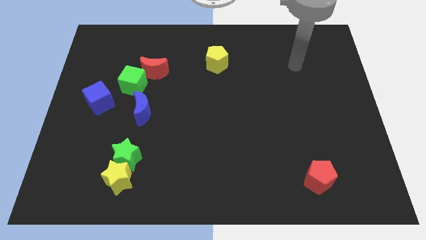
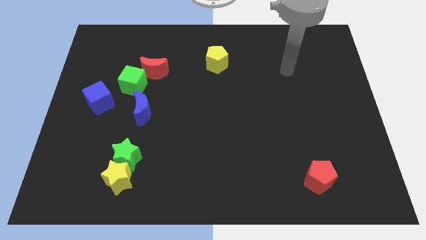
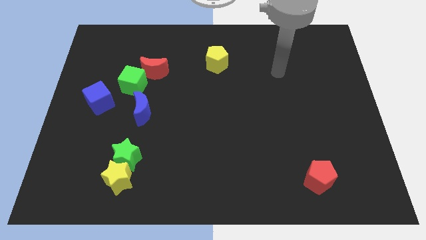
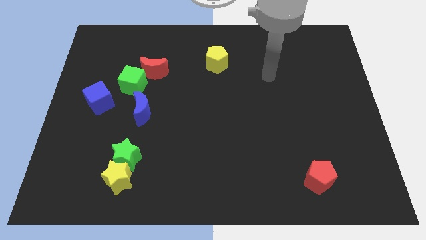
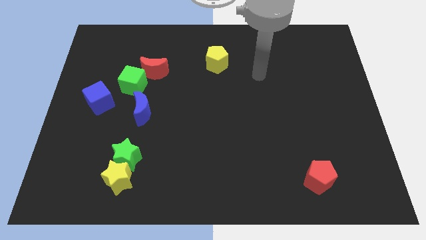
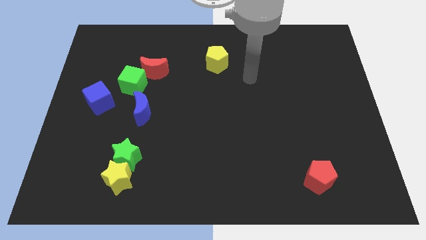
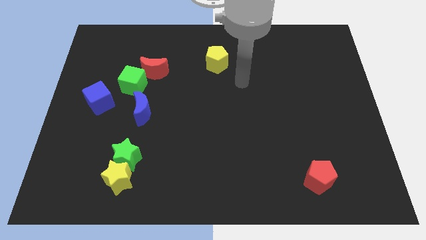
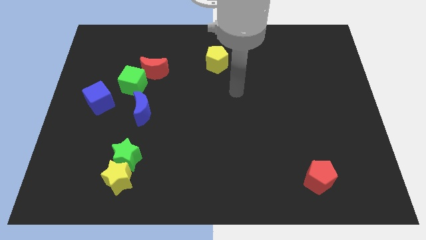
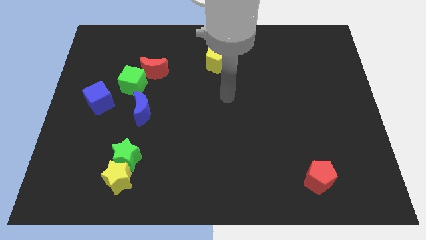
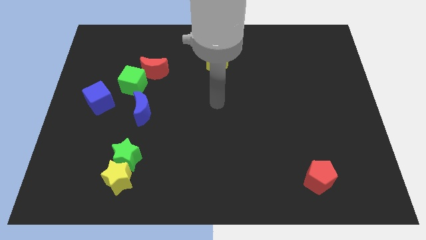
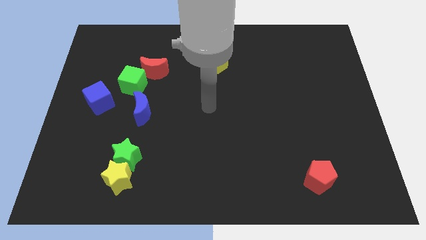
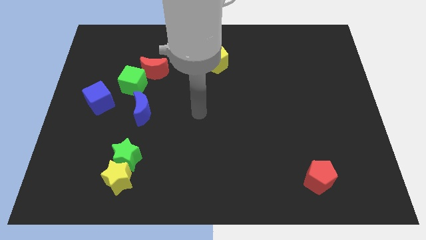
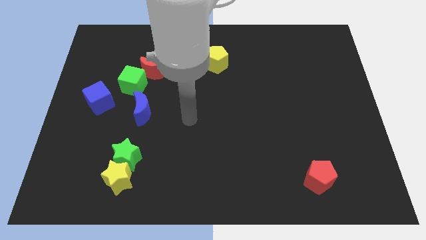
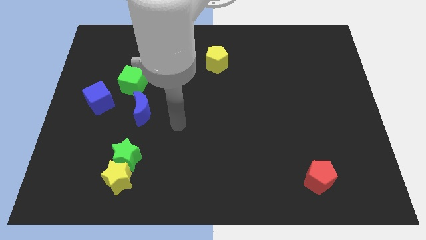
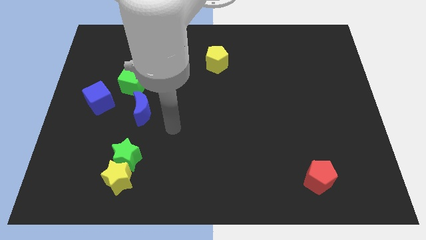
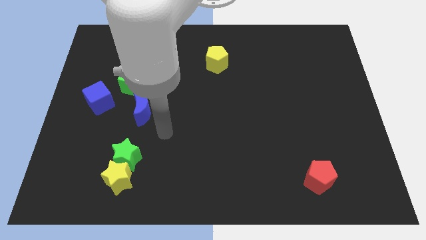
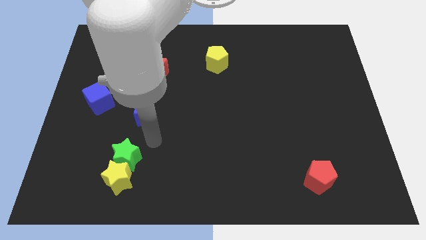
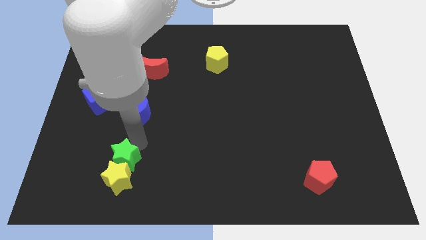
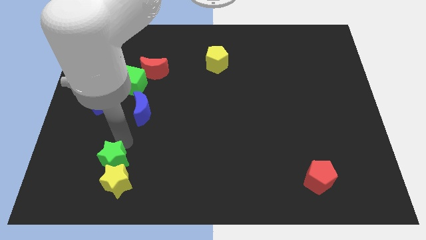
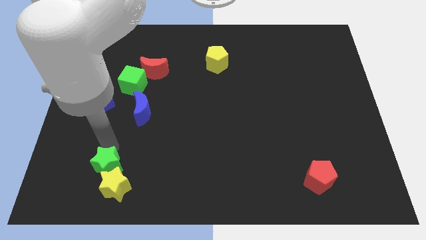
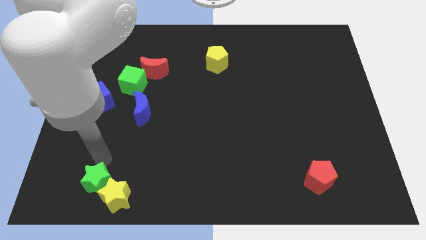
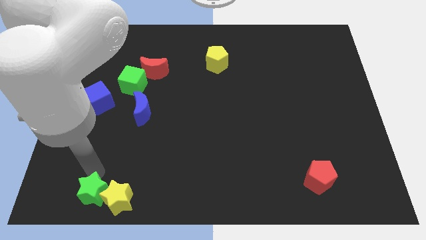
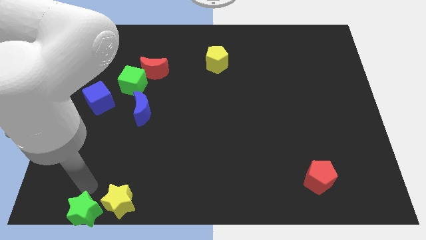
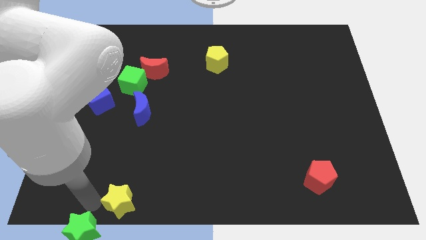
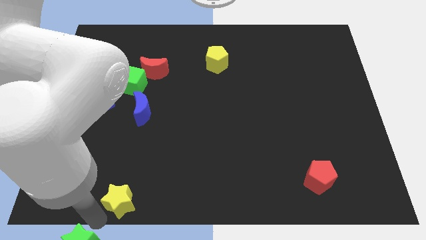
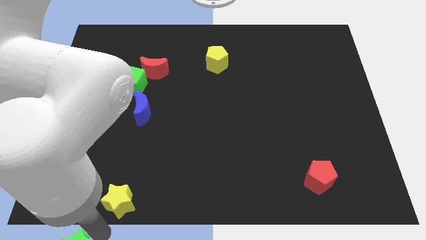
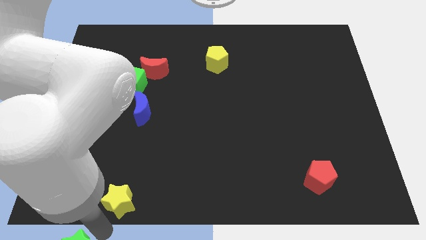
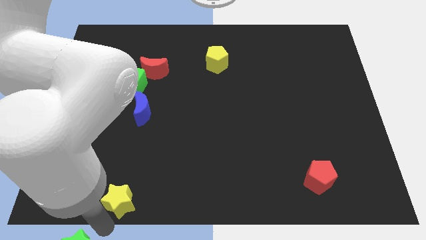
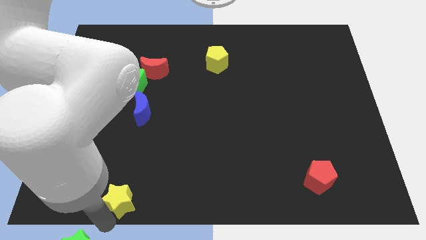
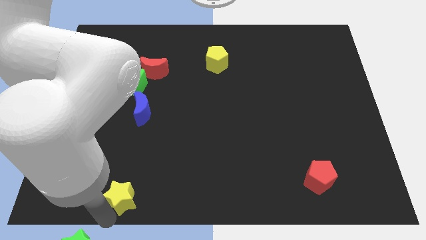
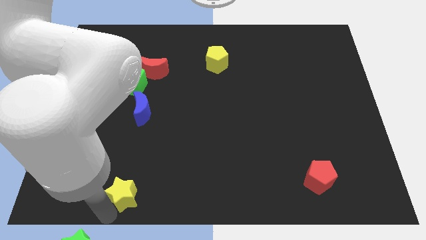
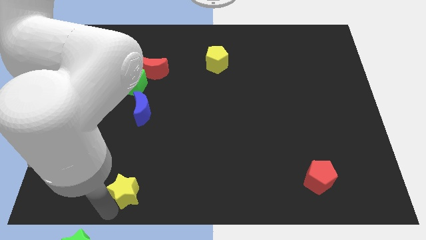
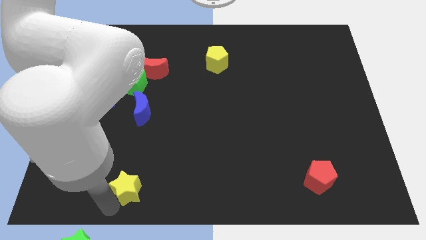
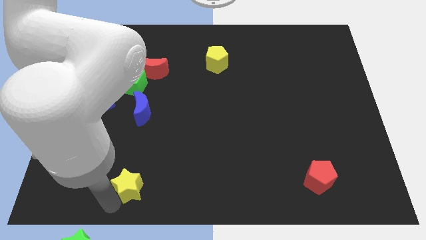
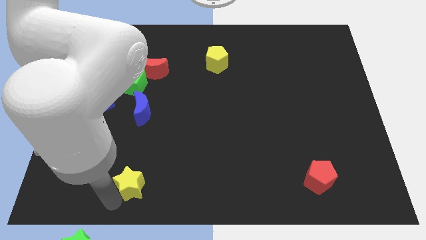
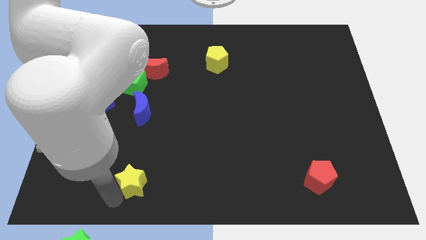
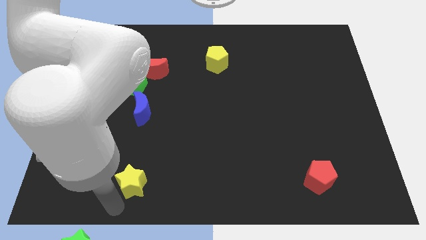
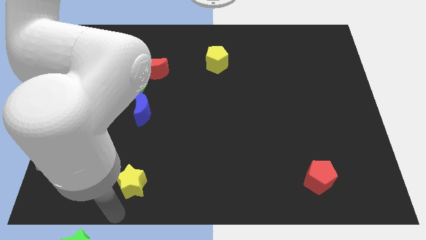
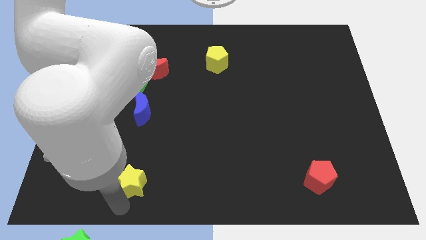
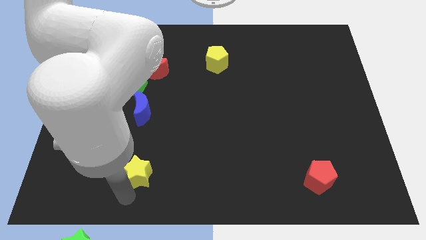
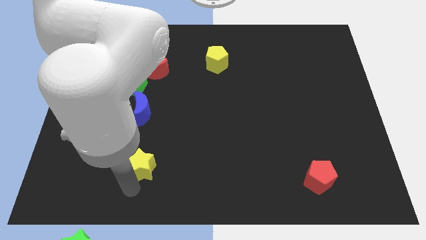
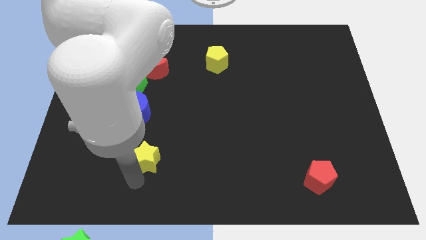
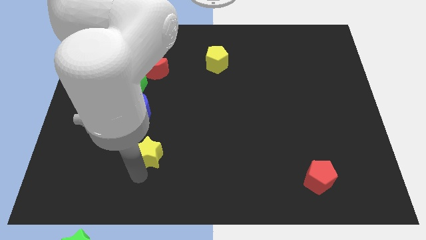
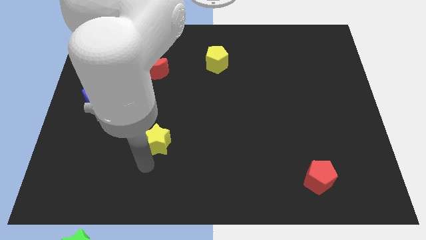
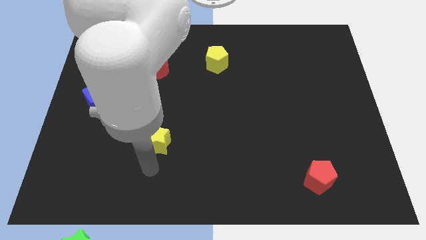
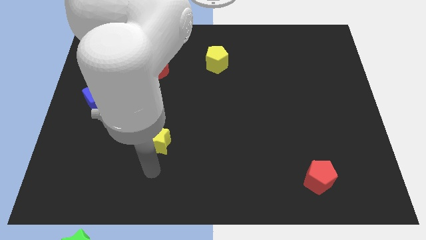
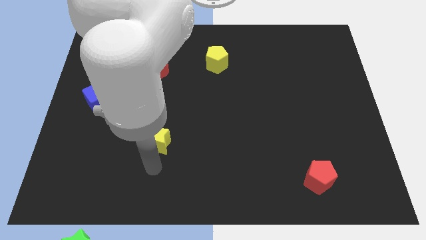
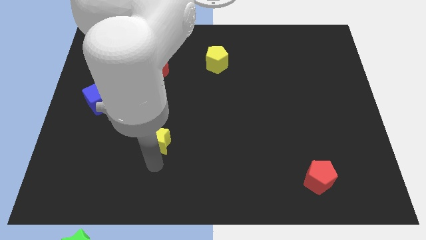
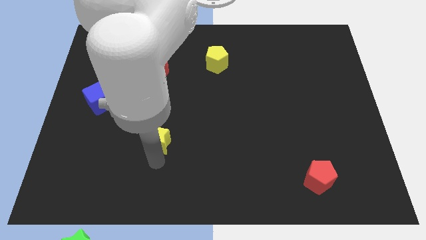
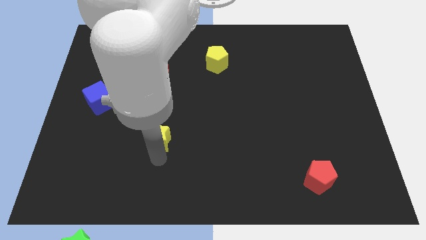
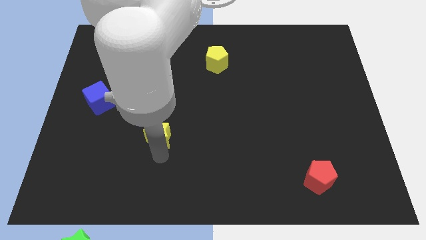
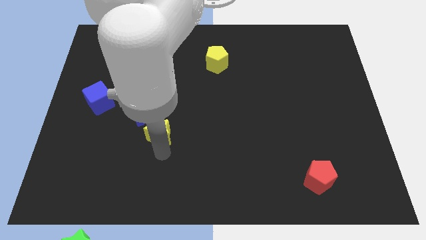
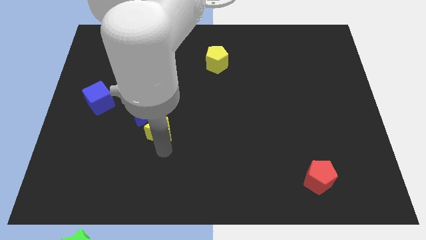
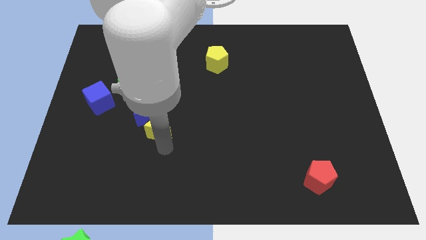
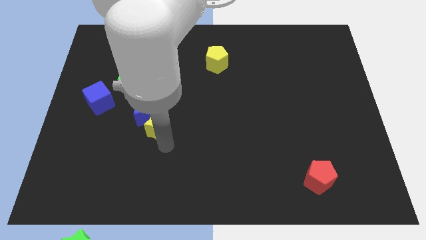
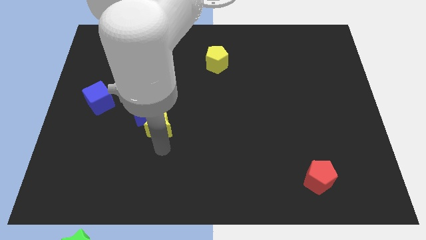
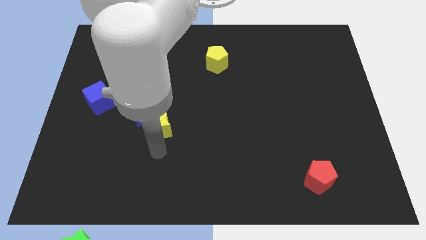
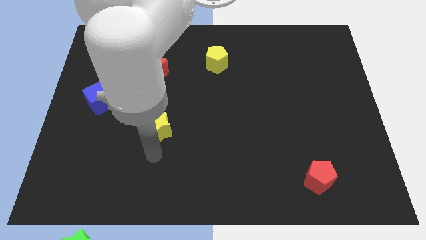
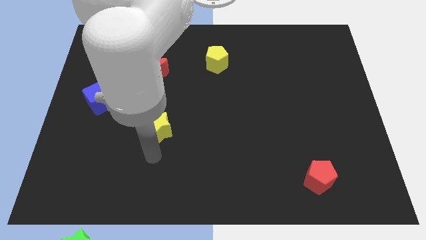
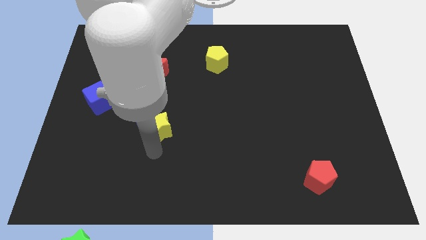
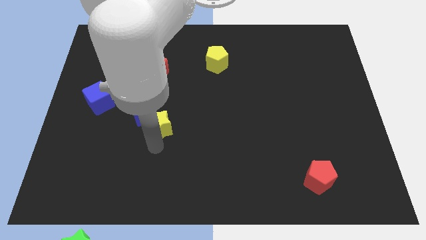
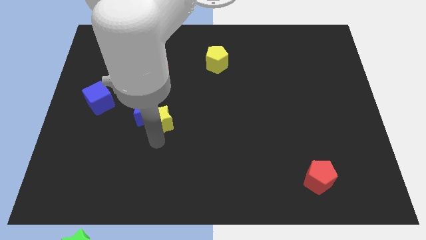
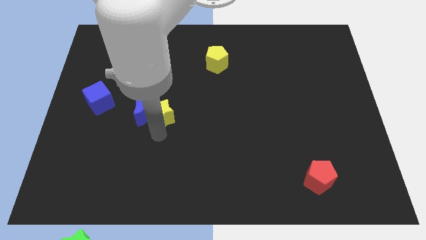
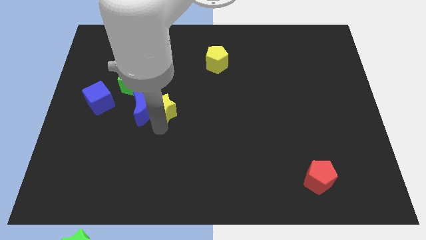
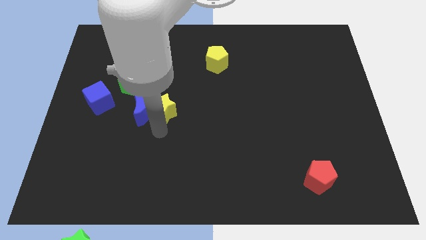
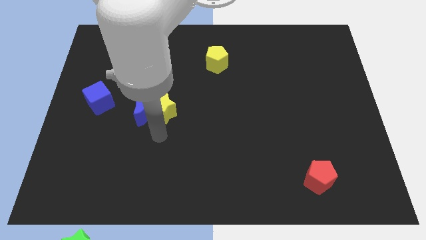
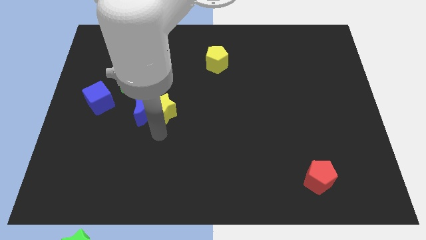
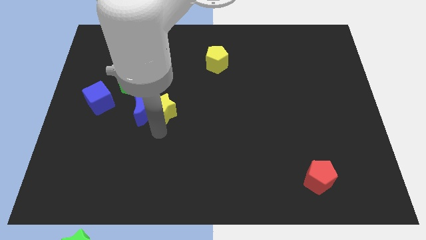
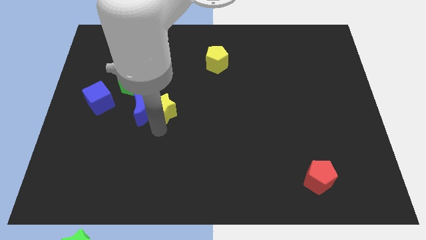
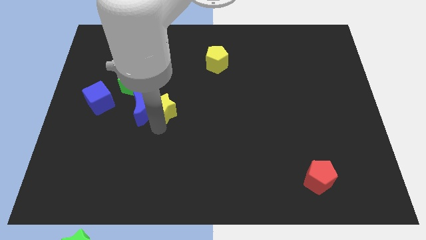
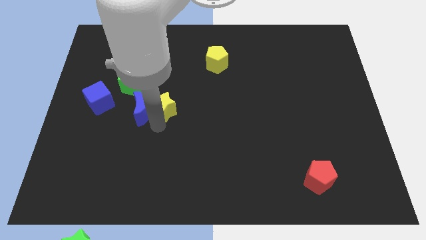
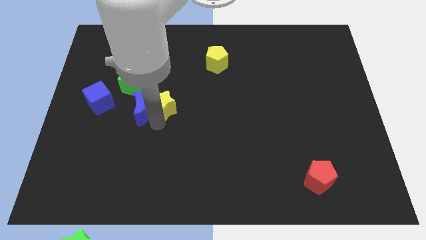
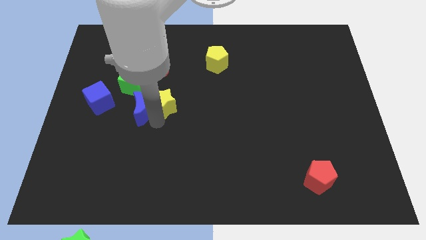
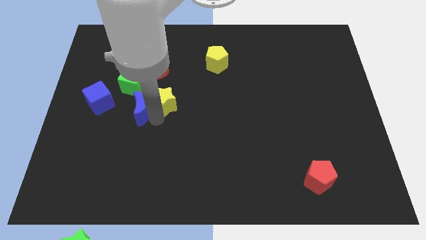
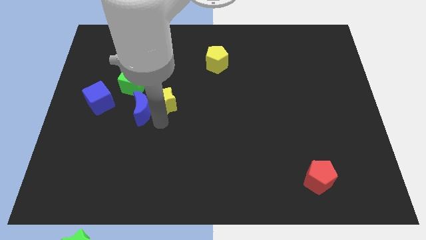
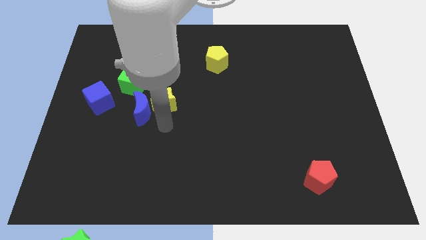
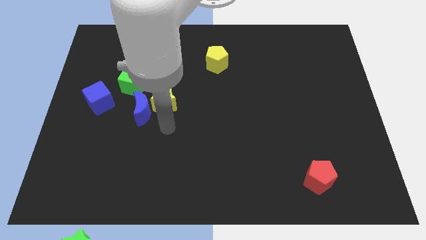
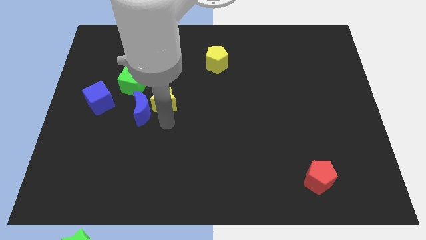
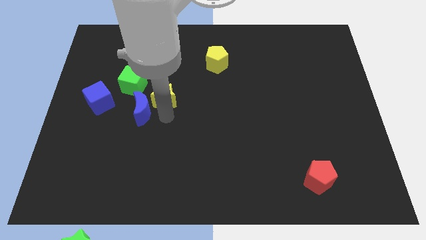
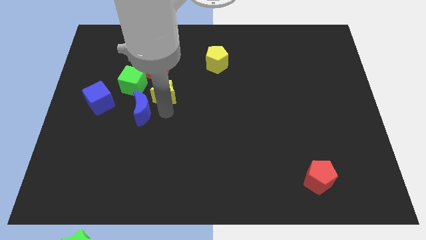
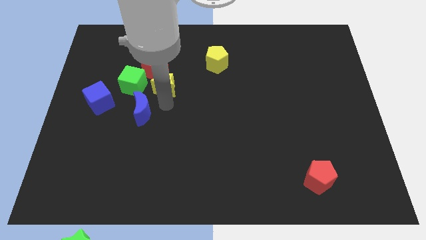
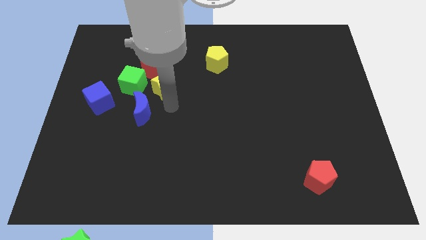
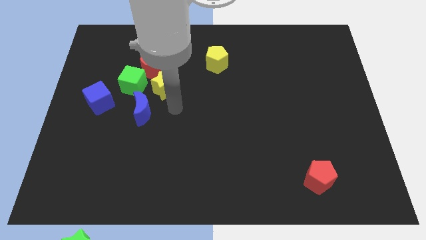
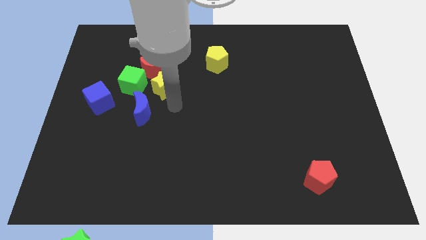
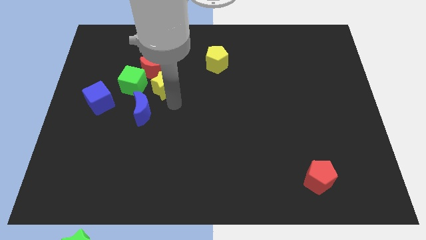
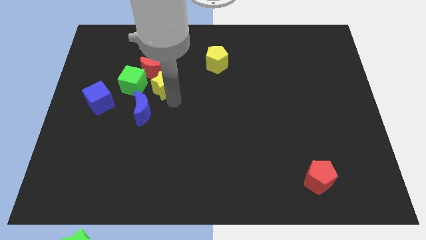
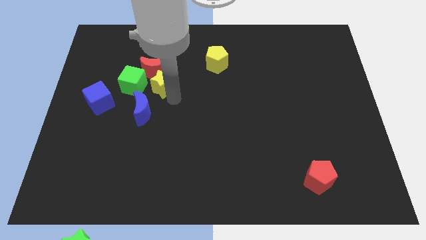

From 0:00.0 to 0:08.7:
slide the yellow star next to the red moon
